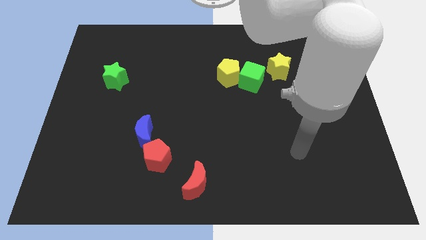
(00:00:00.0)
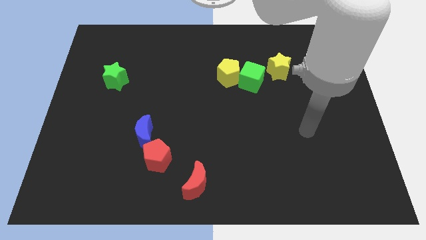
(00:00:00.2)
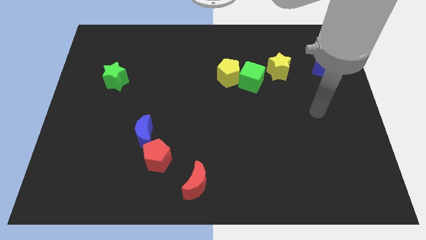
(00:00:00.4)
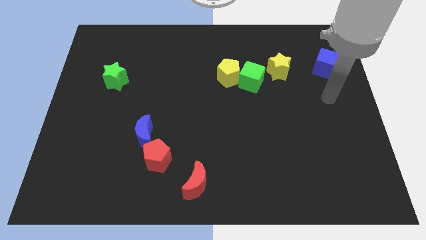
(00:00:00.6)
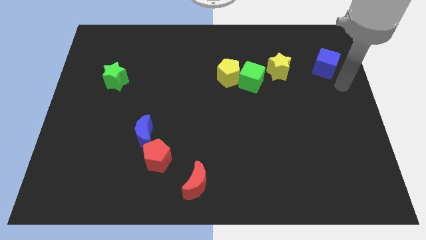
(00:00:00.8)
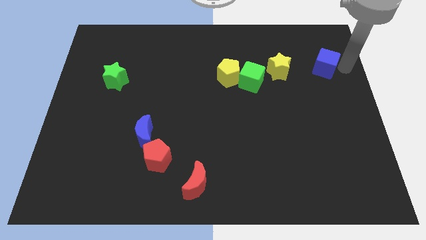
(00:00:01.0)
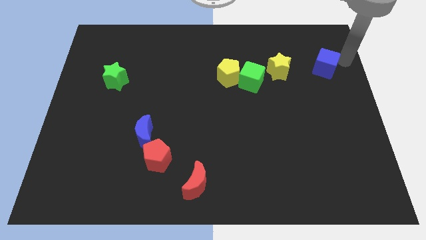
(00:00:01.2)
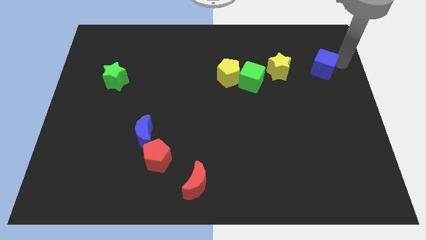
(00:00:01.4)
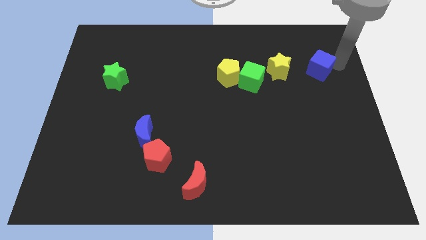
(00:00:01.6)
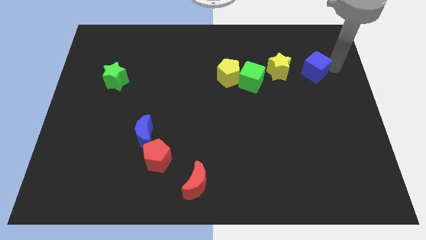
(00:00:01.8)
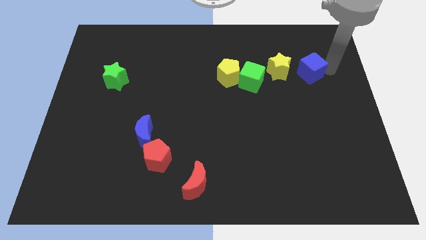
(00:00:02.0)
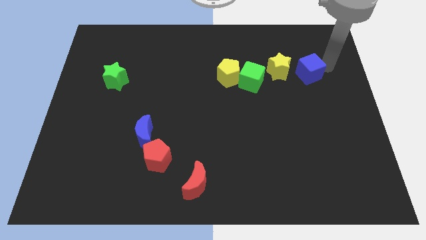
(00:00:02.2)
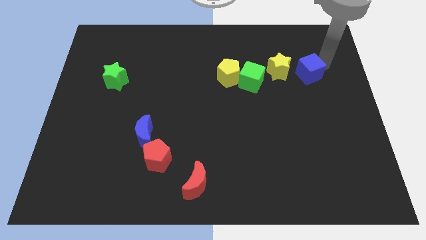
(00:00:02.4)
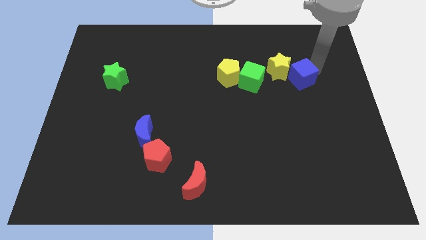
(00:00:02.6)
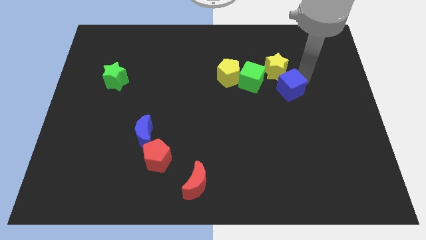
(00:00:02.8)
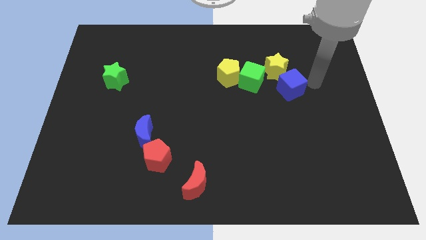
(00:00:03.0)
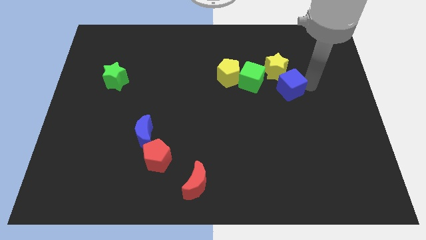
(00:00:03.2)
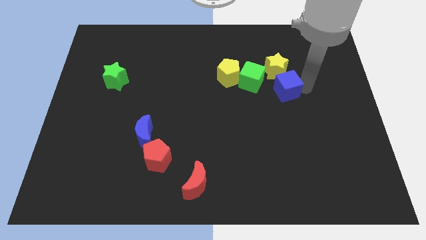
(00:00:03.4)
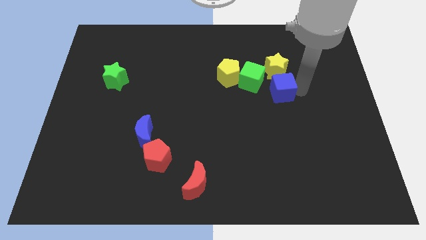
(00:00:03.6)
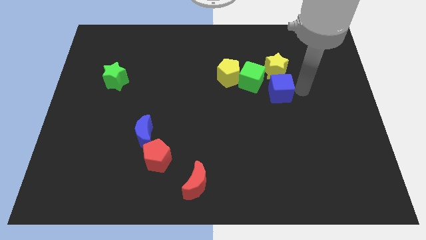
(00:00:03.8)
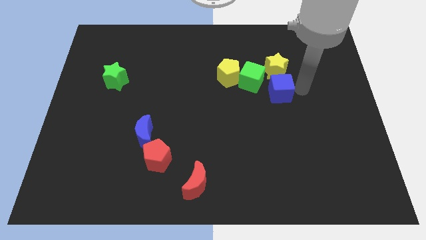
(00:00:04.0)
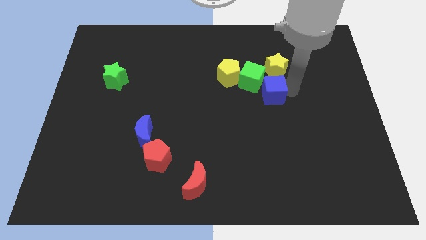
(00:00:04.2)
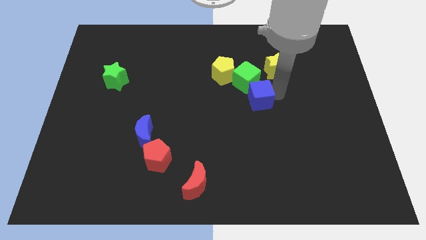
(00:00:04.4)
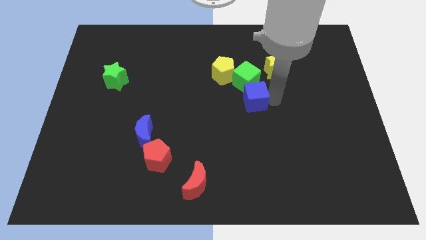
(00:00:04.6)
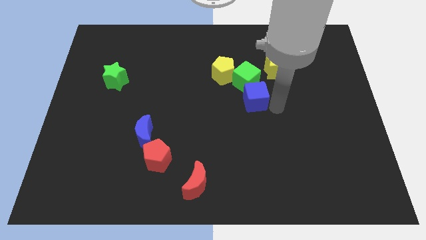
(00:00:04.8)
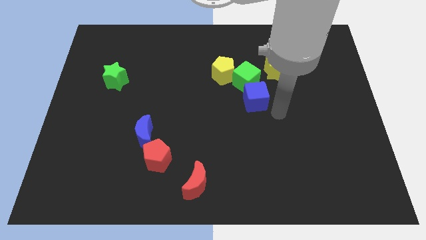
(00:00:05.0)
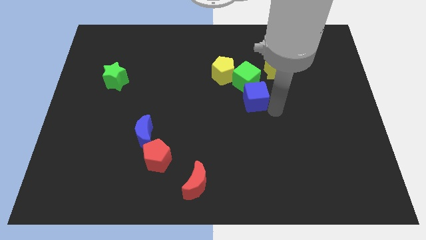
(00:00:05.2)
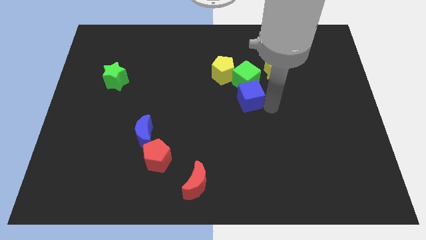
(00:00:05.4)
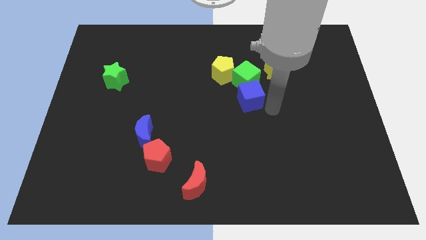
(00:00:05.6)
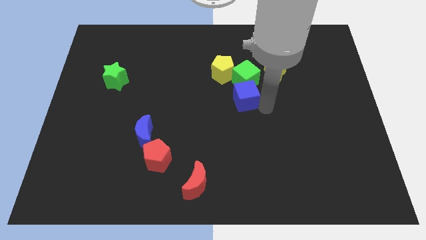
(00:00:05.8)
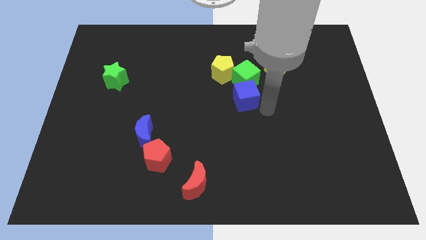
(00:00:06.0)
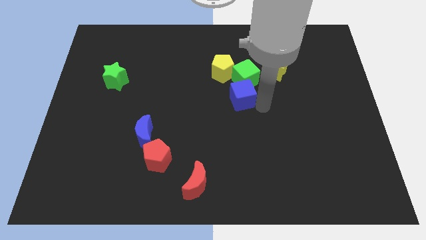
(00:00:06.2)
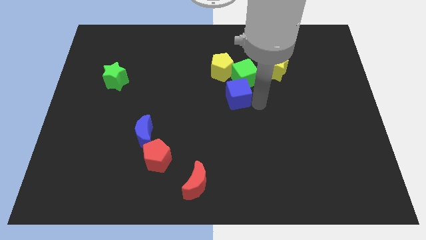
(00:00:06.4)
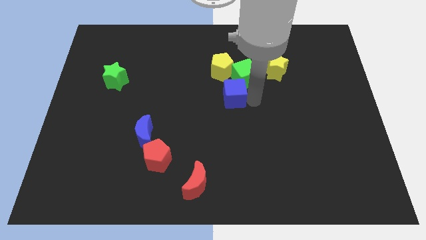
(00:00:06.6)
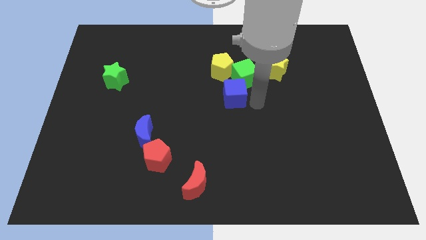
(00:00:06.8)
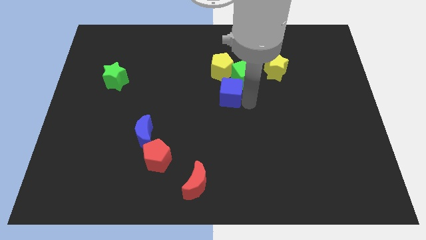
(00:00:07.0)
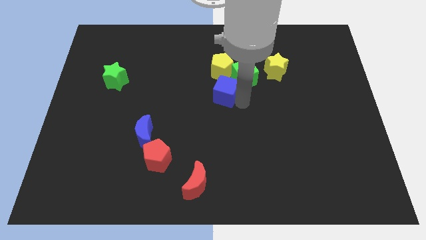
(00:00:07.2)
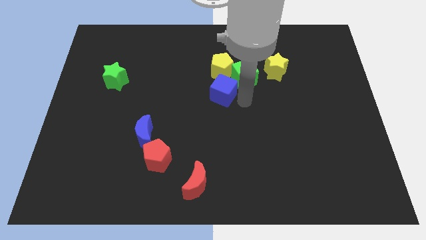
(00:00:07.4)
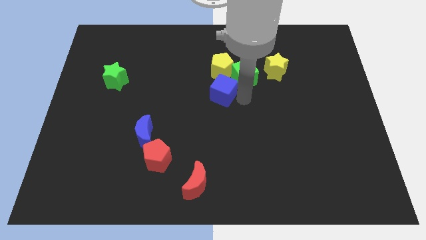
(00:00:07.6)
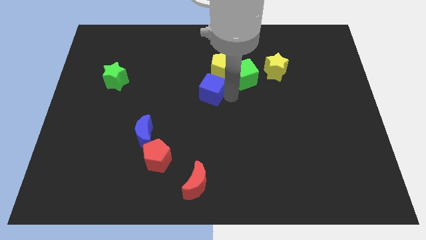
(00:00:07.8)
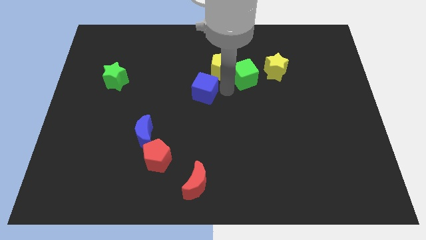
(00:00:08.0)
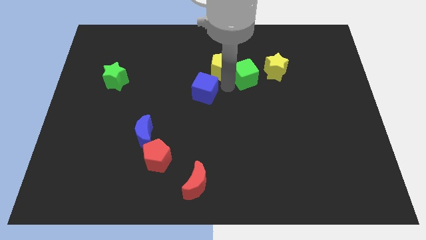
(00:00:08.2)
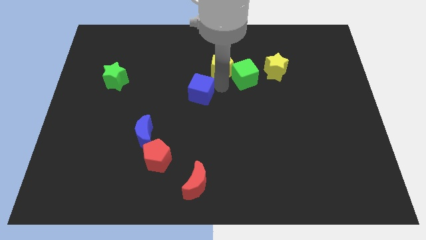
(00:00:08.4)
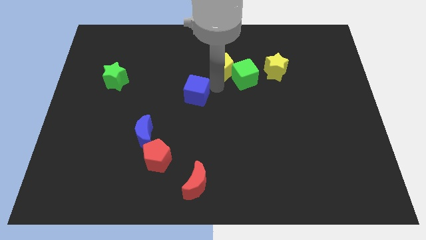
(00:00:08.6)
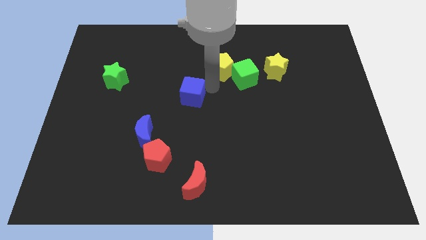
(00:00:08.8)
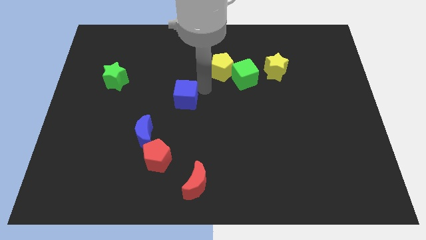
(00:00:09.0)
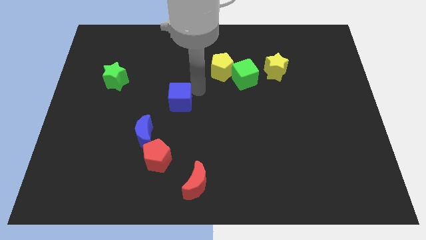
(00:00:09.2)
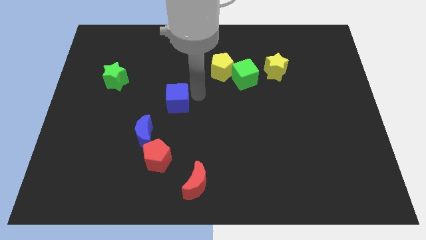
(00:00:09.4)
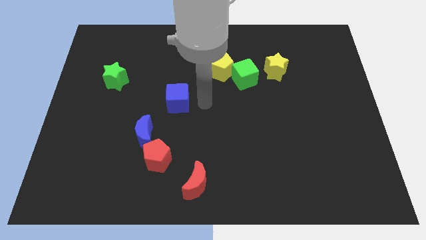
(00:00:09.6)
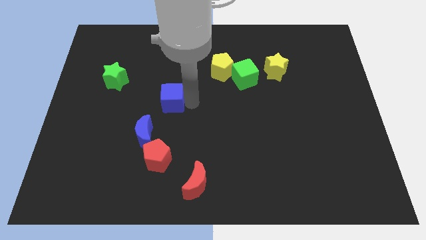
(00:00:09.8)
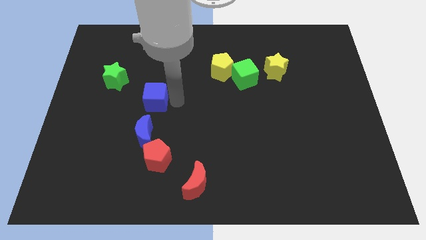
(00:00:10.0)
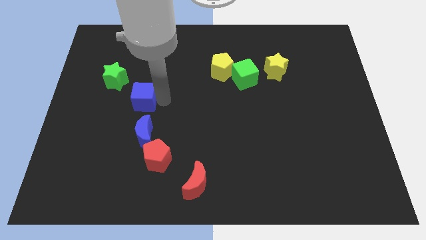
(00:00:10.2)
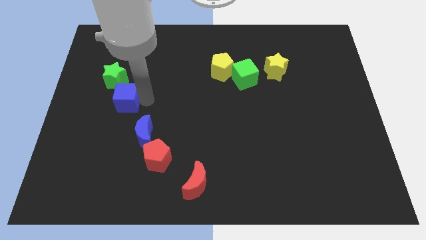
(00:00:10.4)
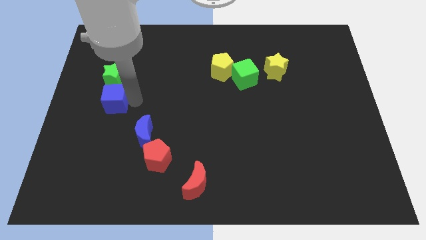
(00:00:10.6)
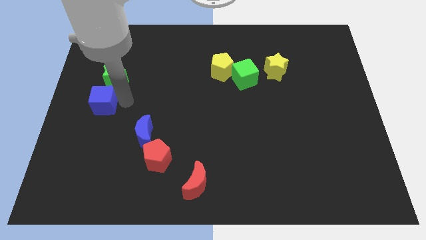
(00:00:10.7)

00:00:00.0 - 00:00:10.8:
push the blue cube to the left side

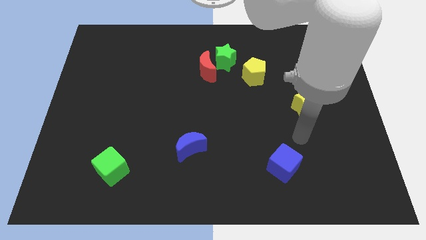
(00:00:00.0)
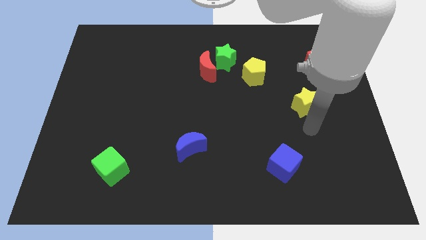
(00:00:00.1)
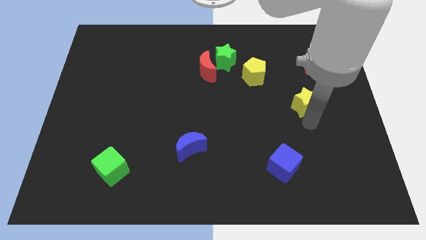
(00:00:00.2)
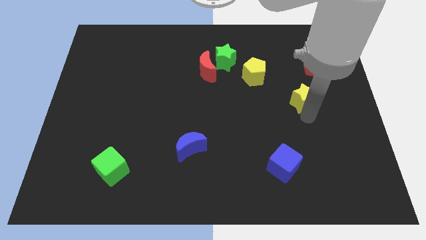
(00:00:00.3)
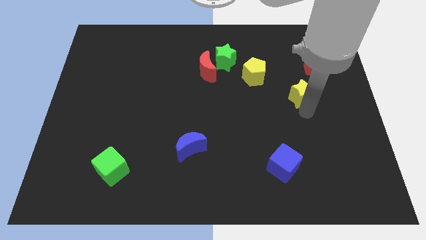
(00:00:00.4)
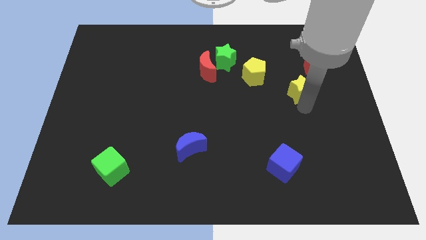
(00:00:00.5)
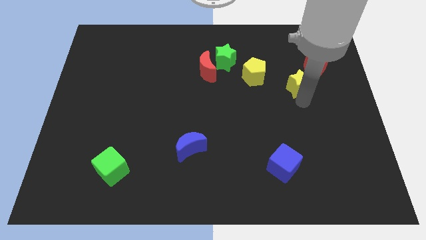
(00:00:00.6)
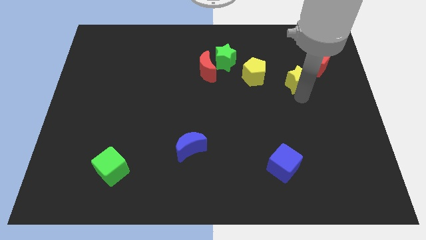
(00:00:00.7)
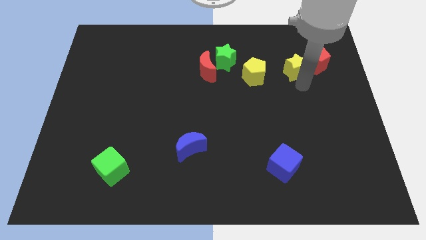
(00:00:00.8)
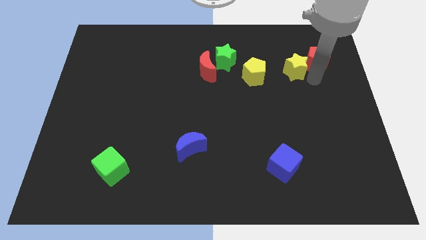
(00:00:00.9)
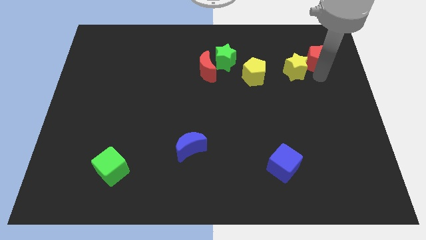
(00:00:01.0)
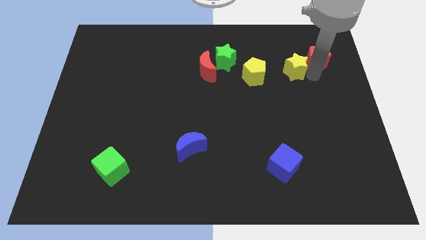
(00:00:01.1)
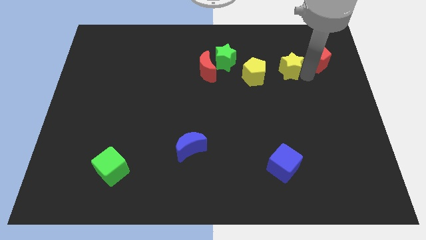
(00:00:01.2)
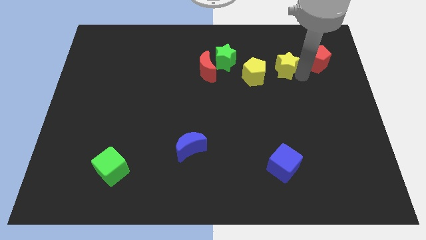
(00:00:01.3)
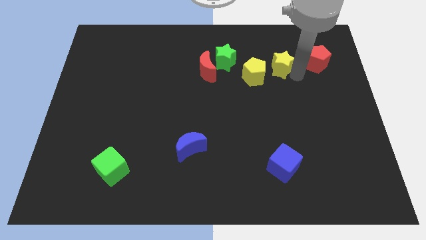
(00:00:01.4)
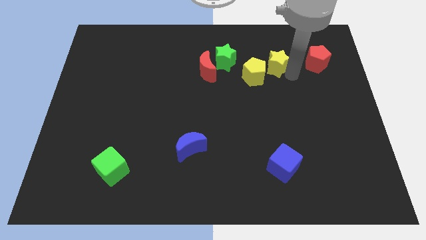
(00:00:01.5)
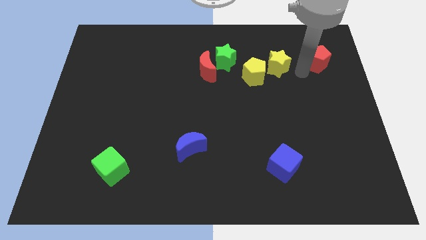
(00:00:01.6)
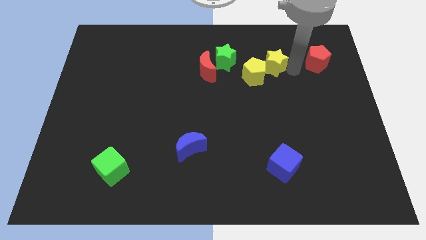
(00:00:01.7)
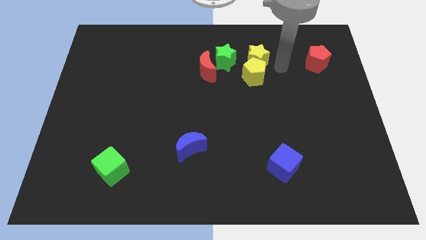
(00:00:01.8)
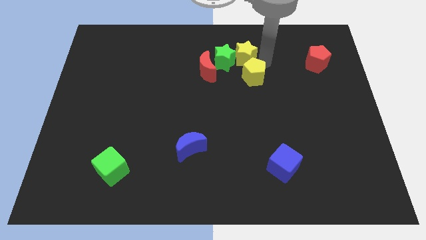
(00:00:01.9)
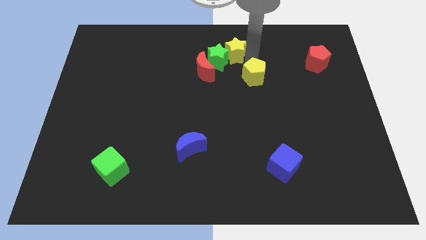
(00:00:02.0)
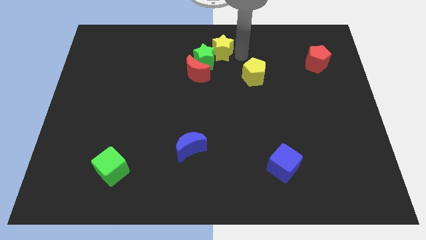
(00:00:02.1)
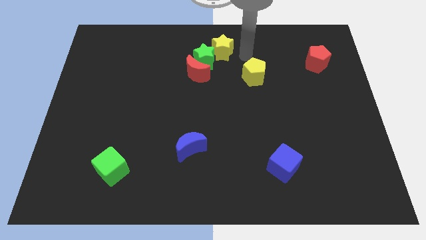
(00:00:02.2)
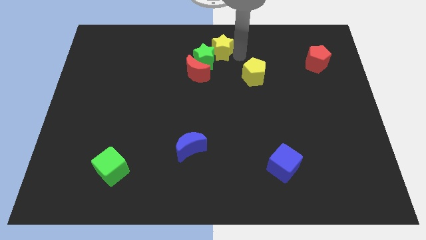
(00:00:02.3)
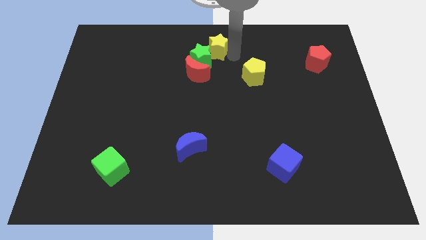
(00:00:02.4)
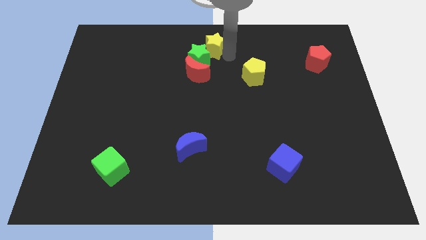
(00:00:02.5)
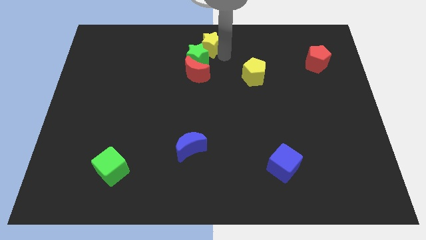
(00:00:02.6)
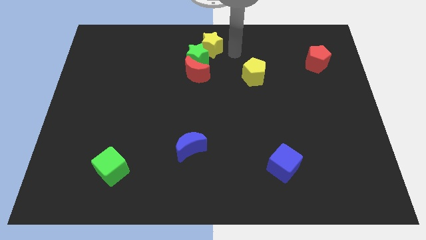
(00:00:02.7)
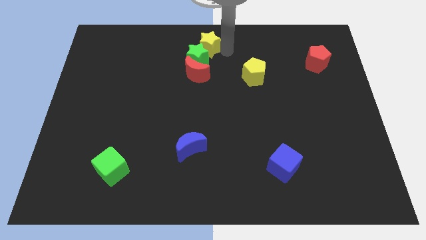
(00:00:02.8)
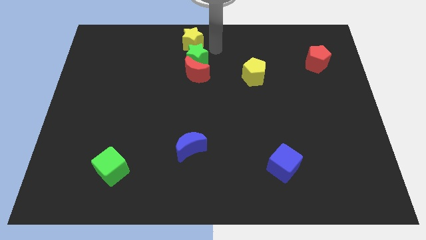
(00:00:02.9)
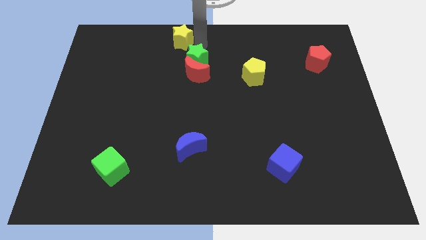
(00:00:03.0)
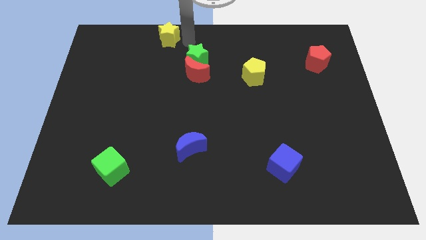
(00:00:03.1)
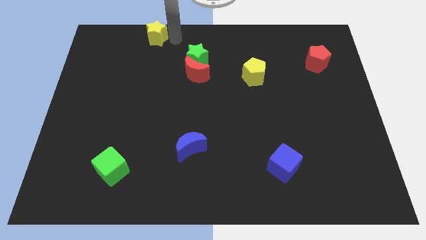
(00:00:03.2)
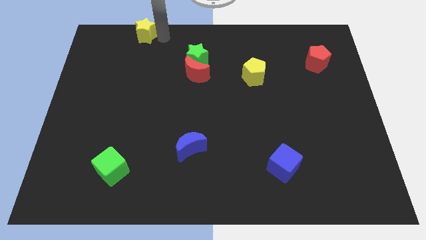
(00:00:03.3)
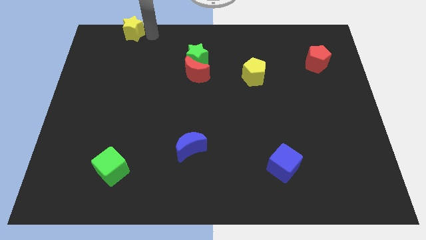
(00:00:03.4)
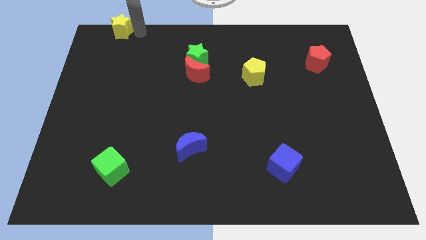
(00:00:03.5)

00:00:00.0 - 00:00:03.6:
slide the yellow star to the top left
